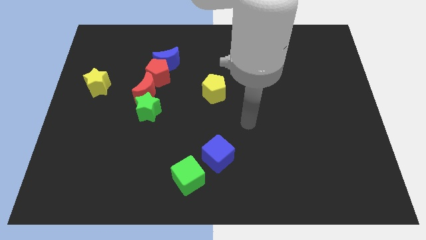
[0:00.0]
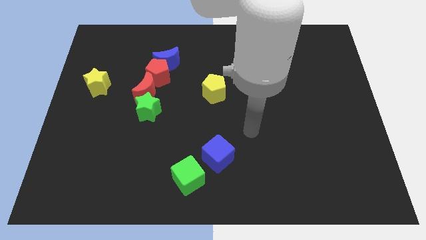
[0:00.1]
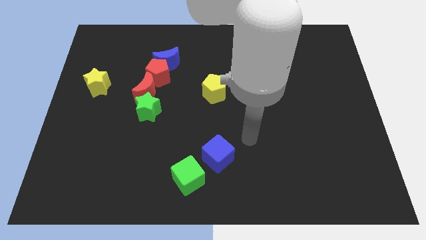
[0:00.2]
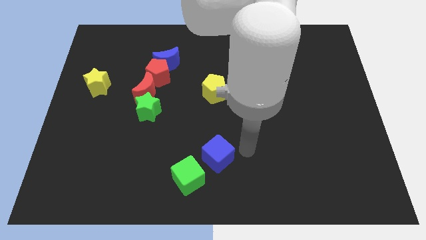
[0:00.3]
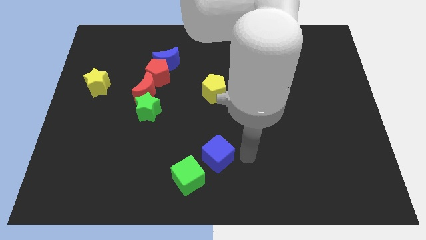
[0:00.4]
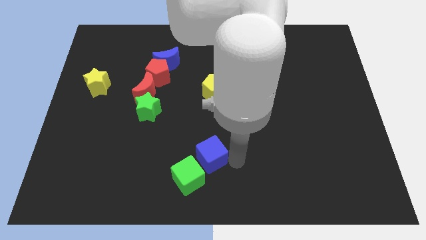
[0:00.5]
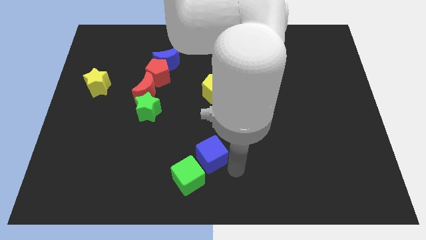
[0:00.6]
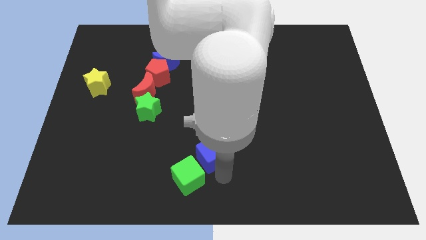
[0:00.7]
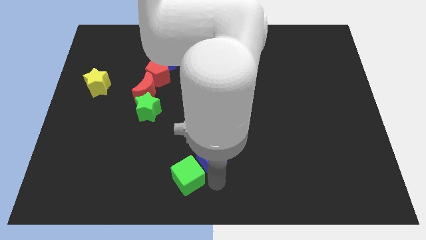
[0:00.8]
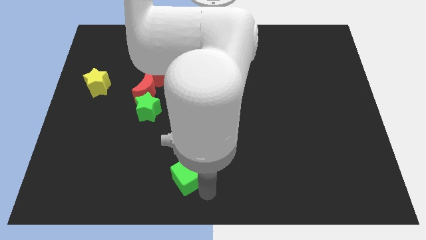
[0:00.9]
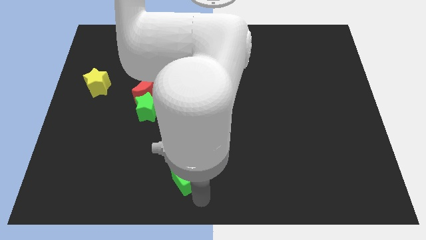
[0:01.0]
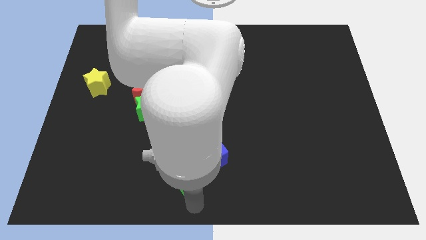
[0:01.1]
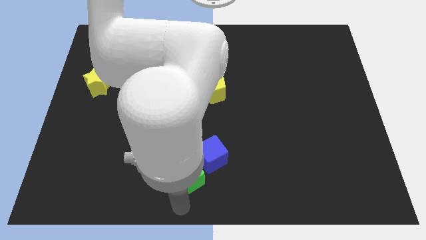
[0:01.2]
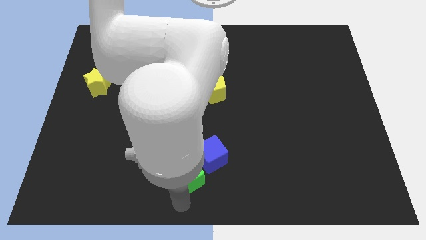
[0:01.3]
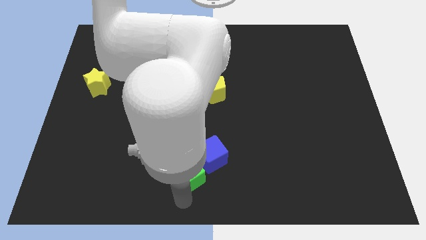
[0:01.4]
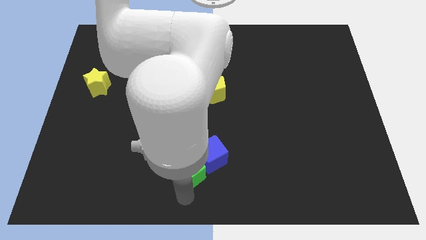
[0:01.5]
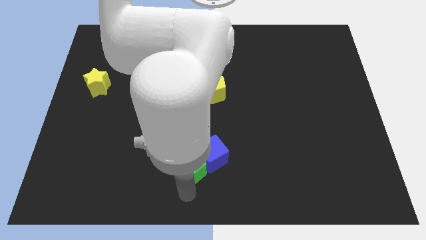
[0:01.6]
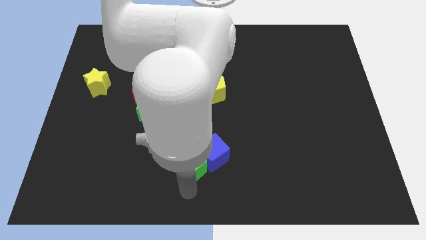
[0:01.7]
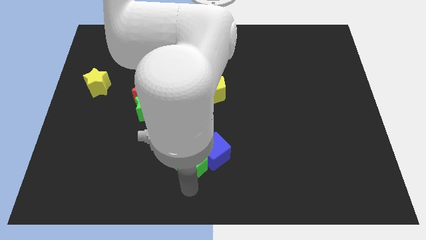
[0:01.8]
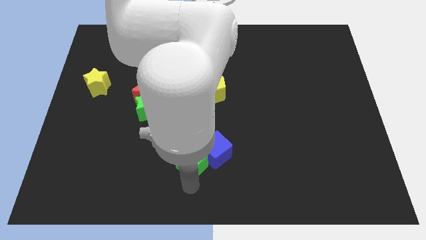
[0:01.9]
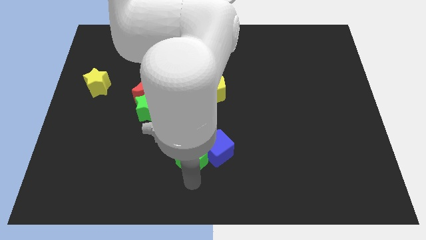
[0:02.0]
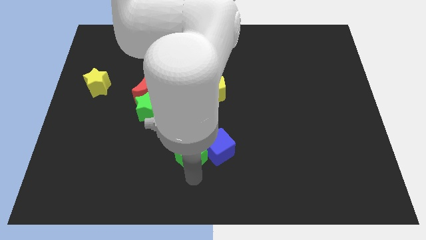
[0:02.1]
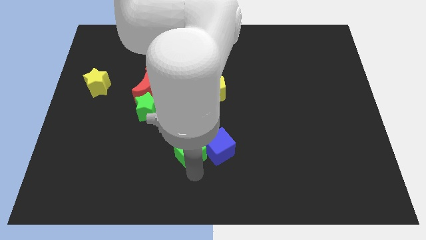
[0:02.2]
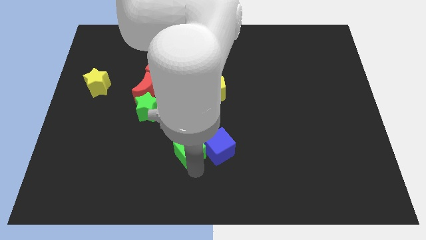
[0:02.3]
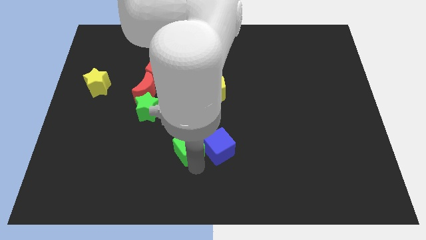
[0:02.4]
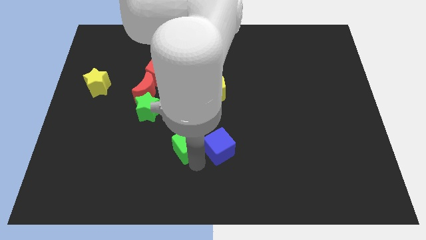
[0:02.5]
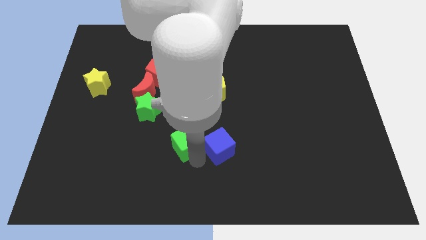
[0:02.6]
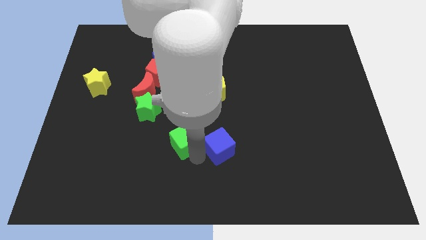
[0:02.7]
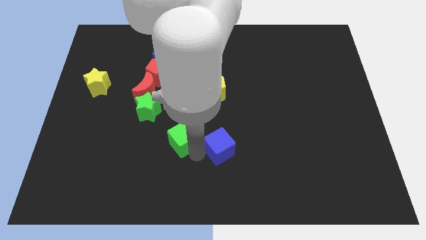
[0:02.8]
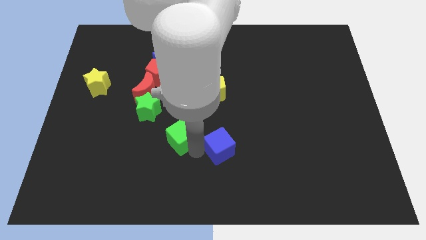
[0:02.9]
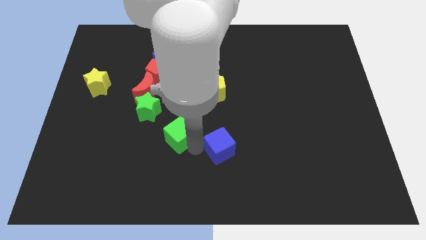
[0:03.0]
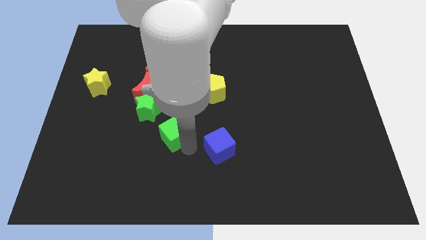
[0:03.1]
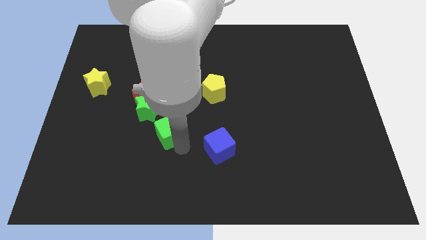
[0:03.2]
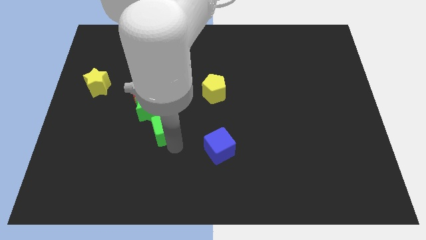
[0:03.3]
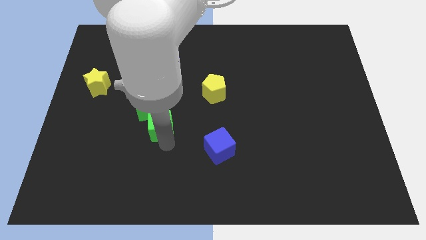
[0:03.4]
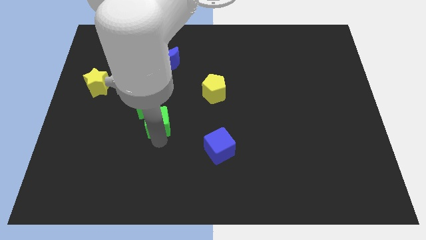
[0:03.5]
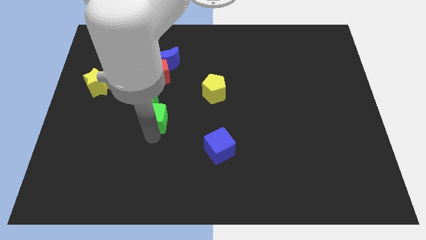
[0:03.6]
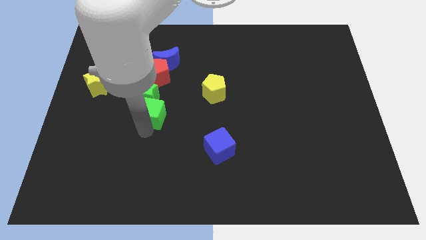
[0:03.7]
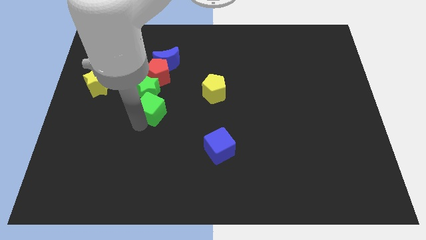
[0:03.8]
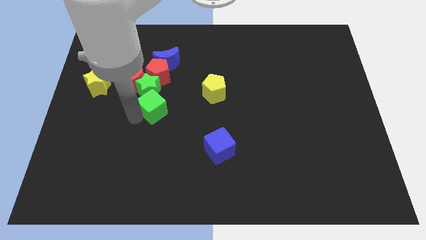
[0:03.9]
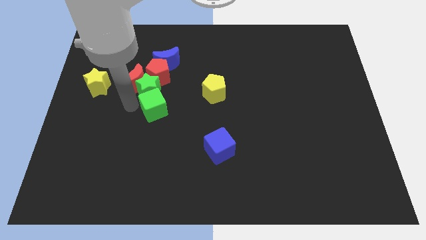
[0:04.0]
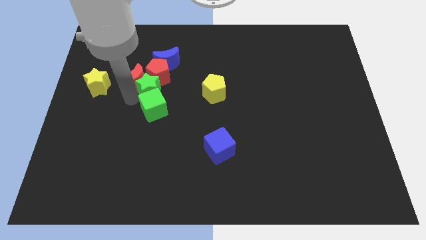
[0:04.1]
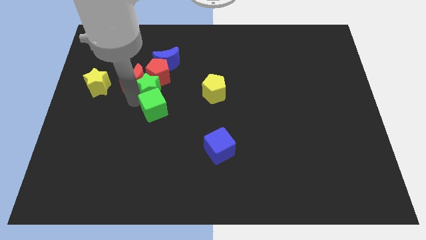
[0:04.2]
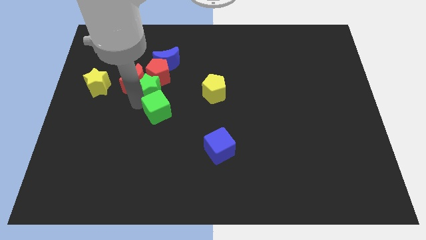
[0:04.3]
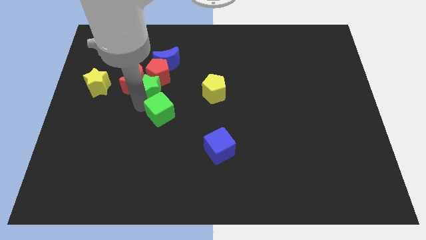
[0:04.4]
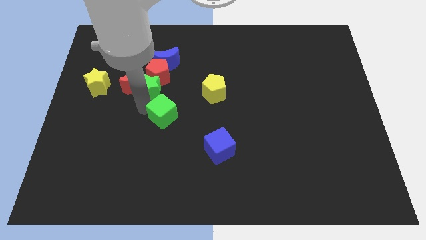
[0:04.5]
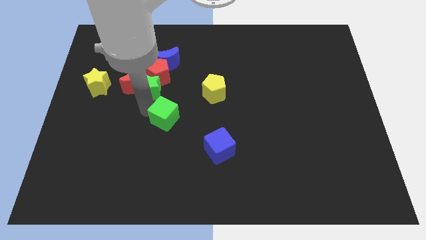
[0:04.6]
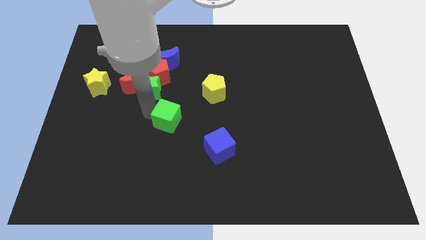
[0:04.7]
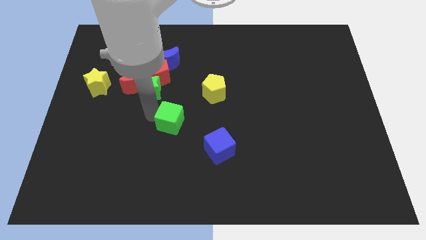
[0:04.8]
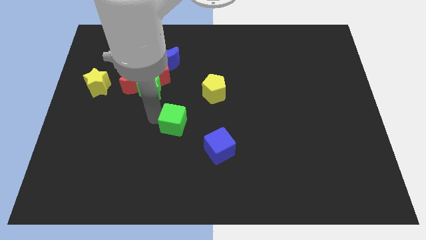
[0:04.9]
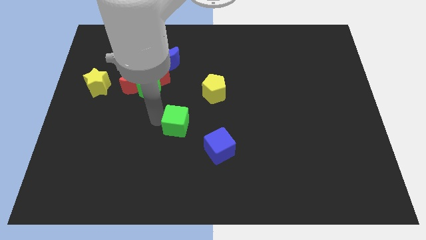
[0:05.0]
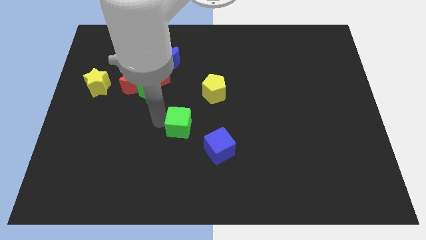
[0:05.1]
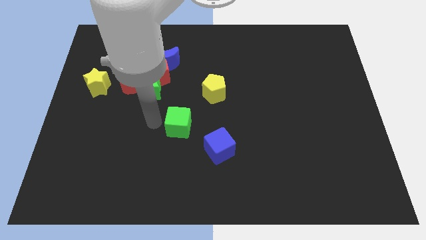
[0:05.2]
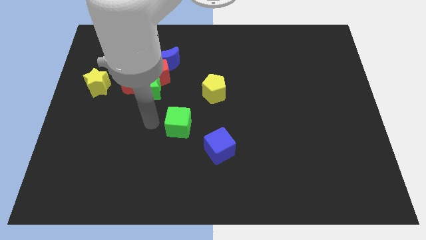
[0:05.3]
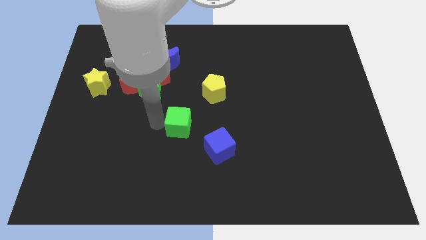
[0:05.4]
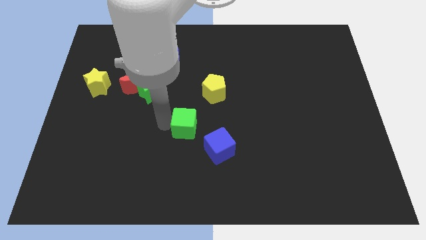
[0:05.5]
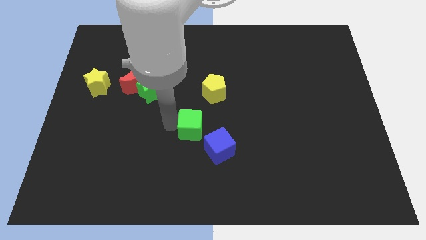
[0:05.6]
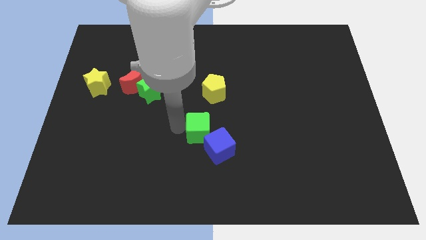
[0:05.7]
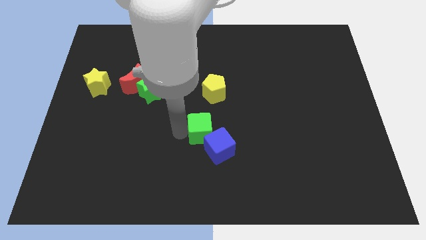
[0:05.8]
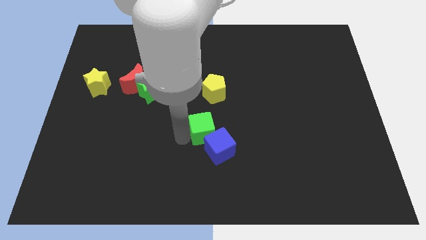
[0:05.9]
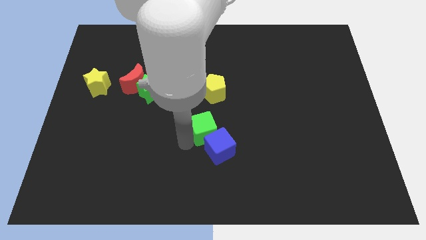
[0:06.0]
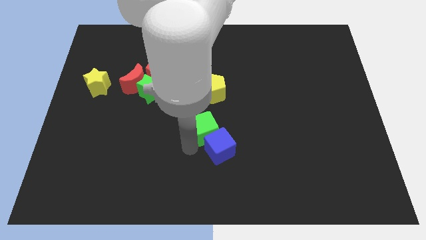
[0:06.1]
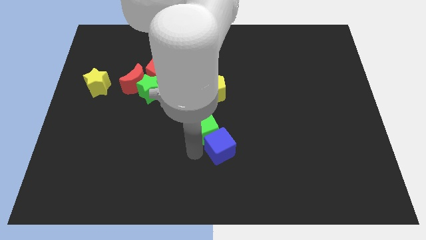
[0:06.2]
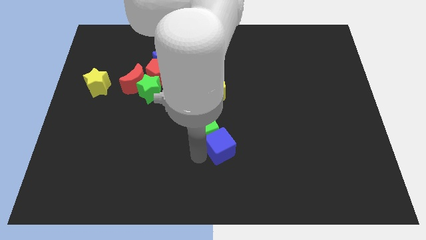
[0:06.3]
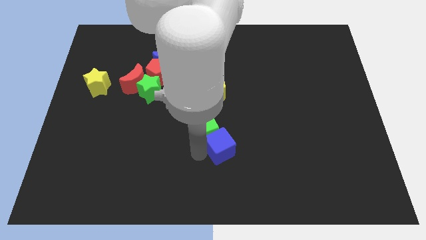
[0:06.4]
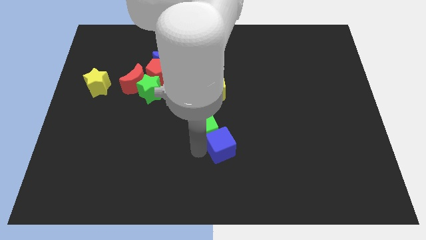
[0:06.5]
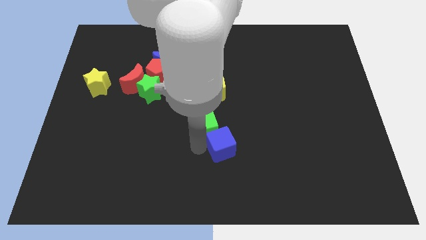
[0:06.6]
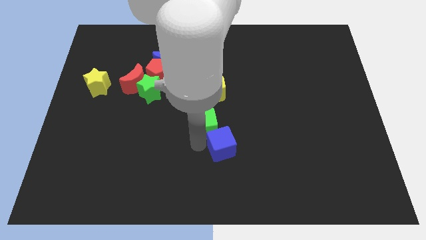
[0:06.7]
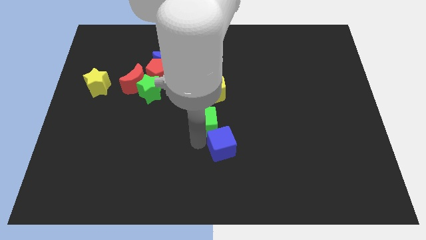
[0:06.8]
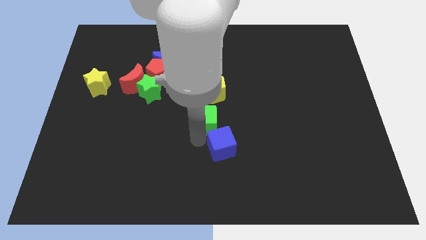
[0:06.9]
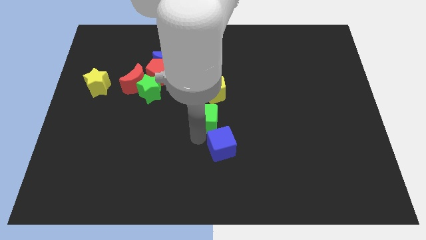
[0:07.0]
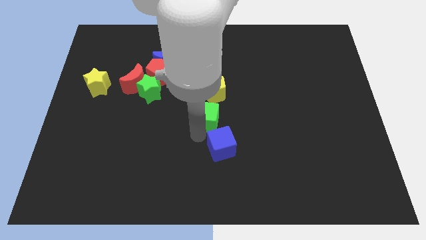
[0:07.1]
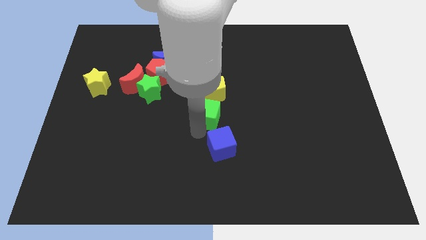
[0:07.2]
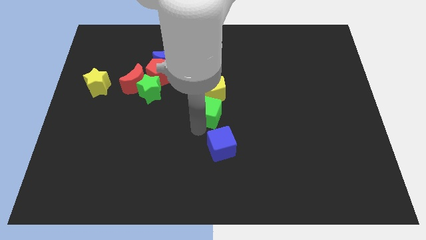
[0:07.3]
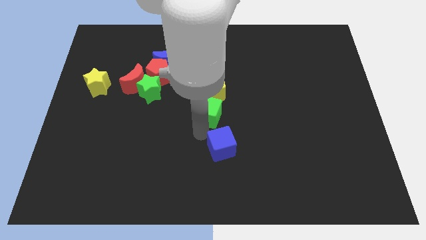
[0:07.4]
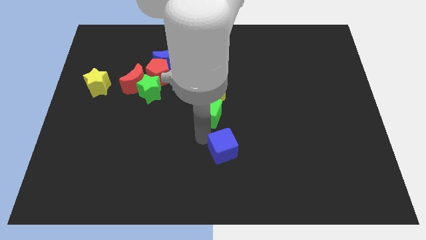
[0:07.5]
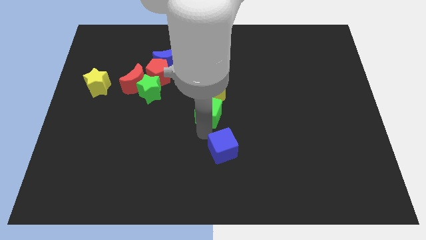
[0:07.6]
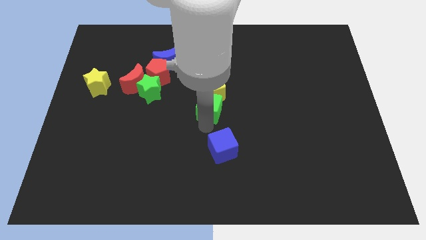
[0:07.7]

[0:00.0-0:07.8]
put the green cube to the yellow pentagon
